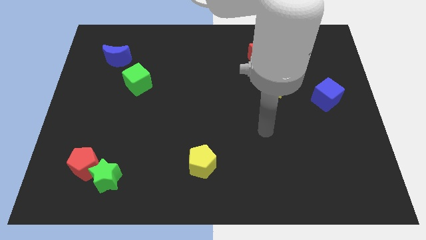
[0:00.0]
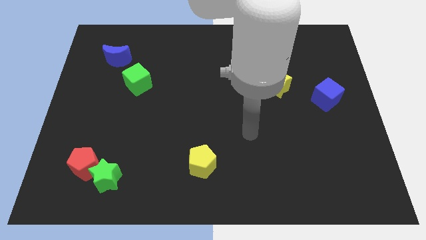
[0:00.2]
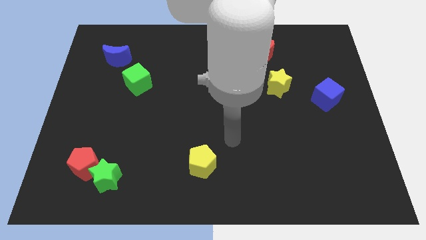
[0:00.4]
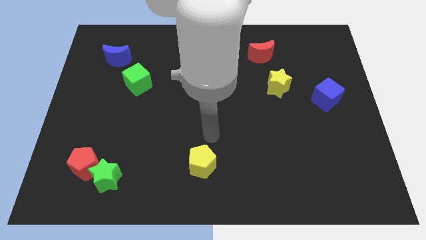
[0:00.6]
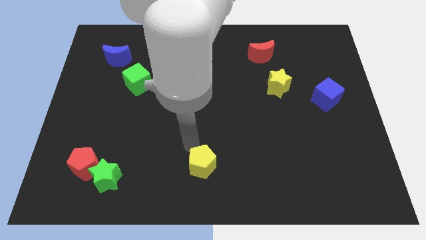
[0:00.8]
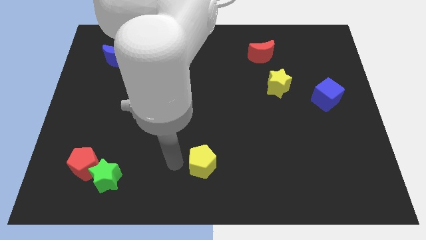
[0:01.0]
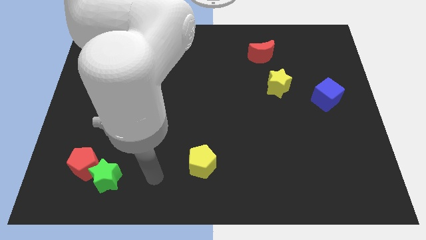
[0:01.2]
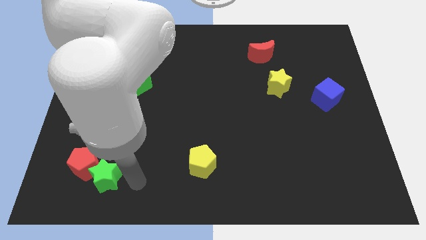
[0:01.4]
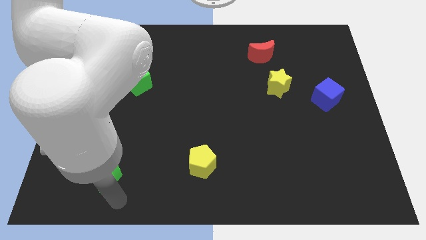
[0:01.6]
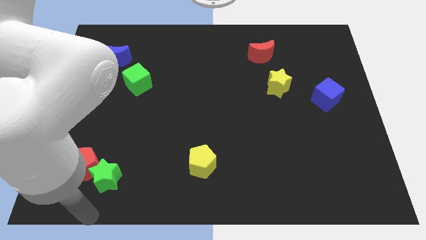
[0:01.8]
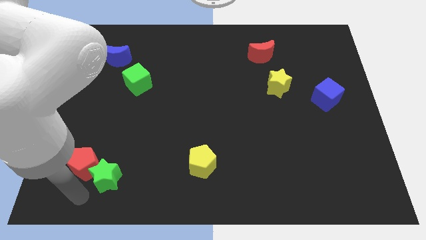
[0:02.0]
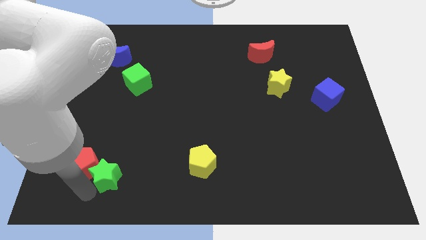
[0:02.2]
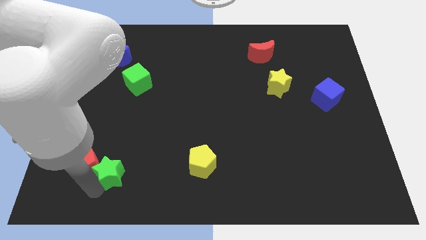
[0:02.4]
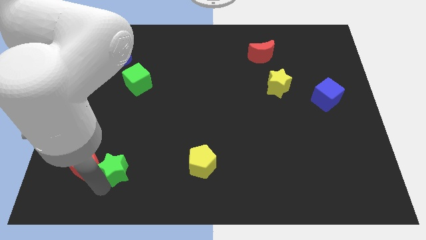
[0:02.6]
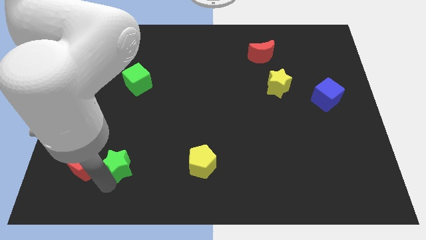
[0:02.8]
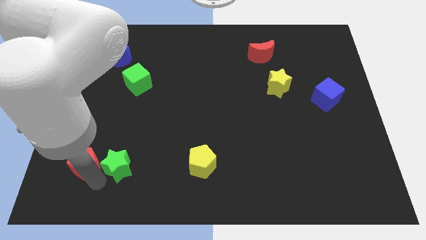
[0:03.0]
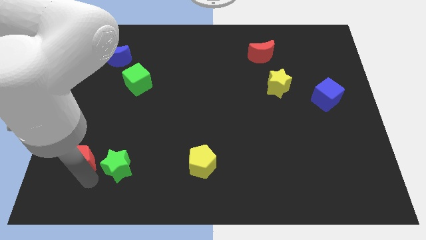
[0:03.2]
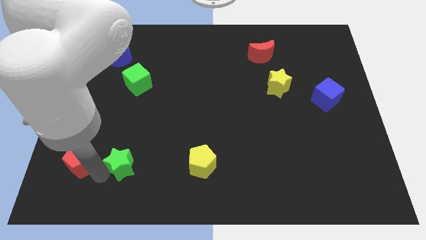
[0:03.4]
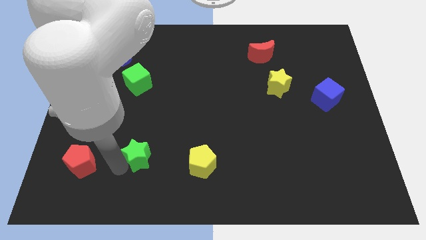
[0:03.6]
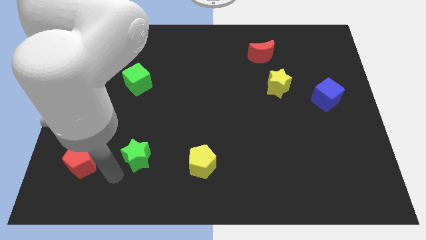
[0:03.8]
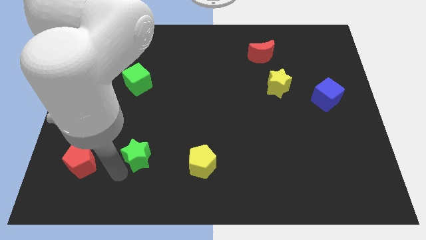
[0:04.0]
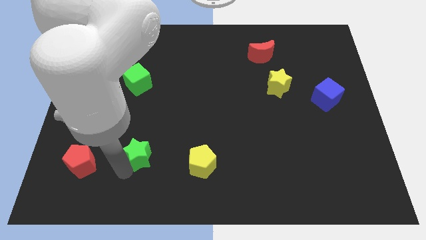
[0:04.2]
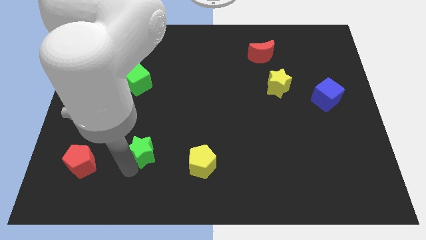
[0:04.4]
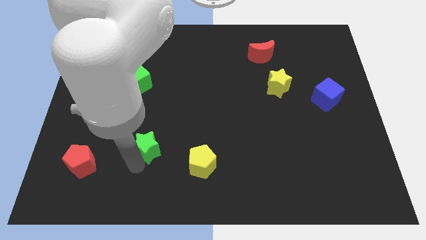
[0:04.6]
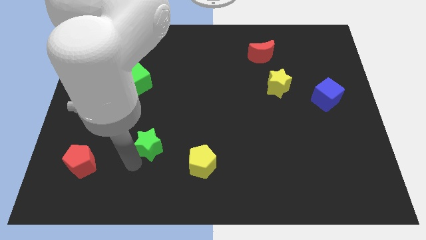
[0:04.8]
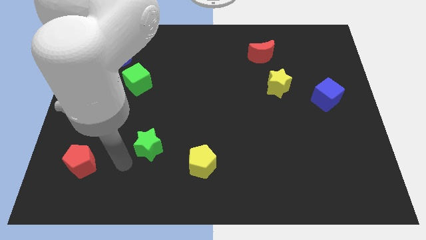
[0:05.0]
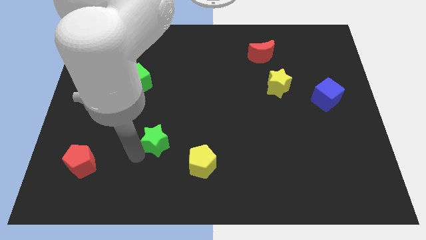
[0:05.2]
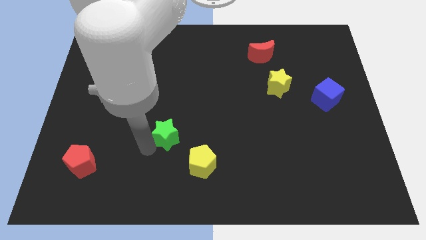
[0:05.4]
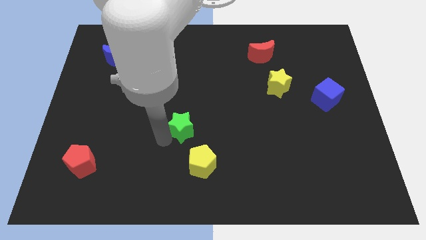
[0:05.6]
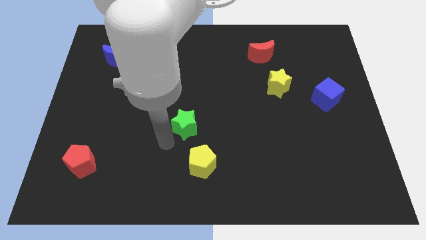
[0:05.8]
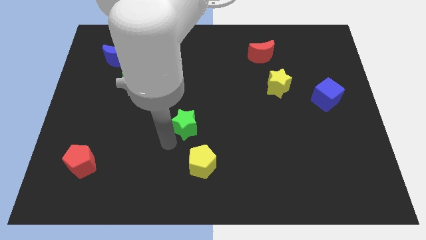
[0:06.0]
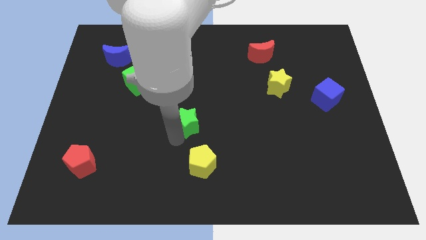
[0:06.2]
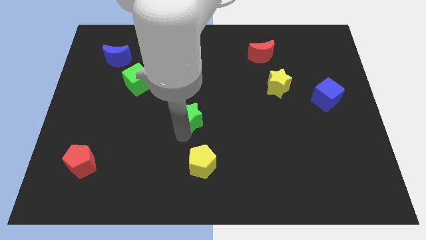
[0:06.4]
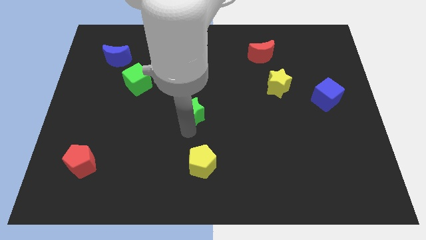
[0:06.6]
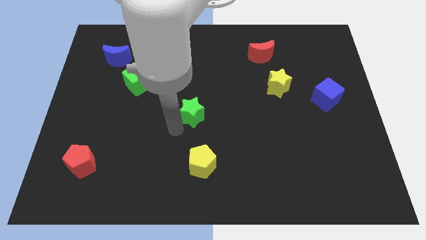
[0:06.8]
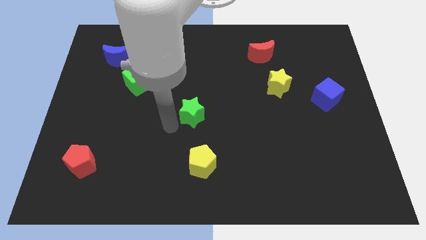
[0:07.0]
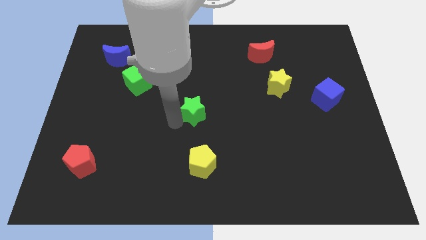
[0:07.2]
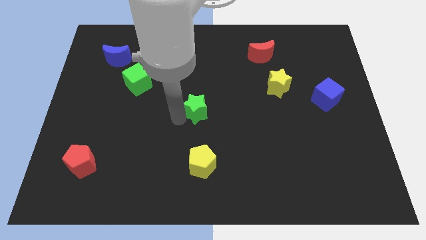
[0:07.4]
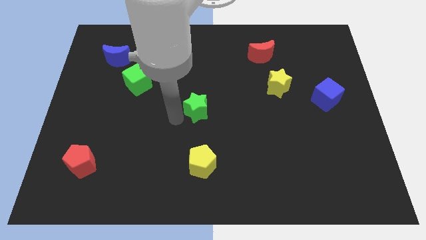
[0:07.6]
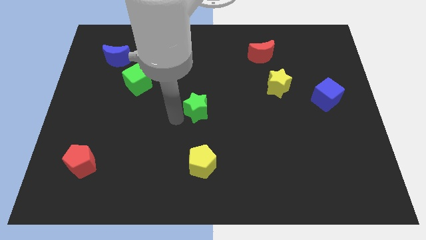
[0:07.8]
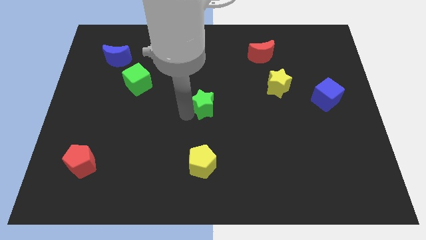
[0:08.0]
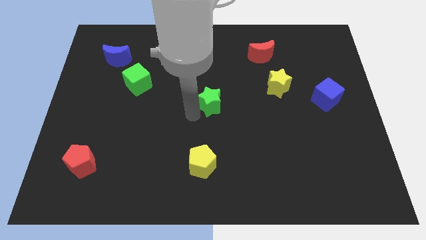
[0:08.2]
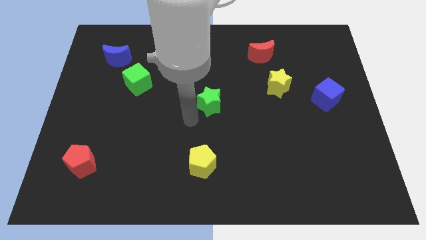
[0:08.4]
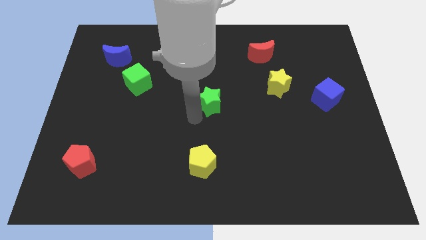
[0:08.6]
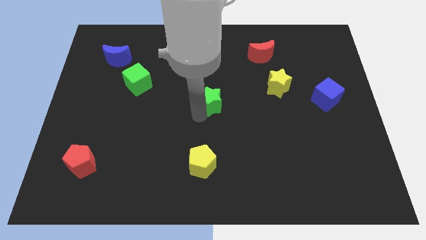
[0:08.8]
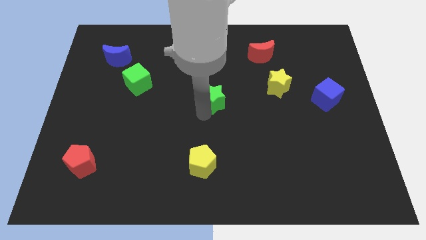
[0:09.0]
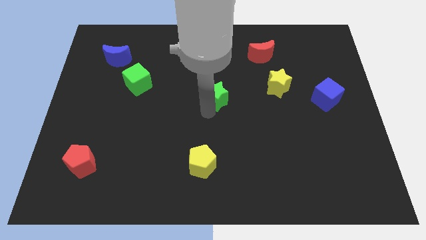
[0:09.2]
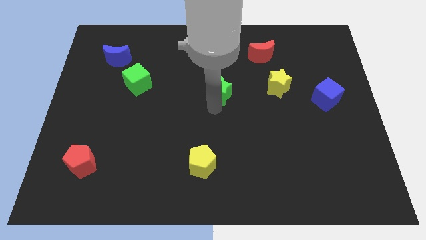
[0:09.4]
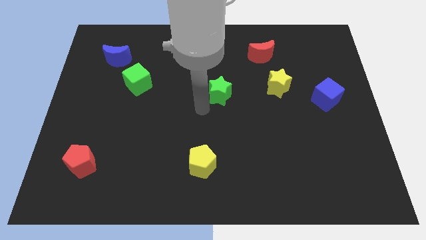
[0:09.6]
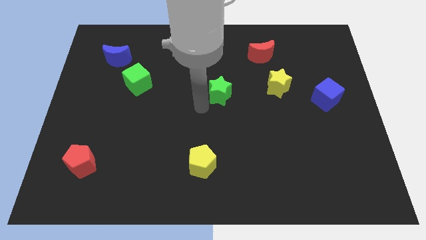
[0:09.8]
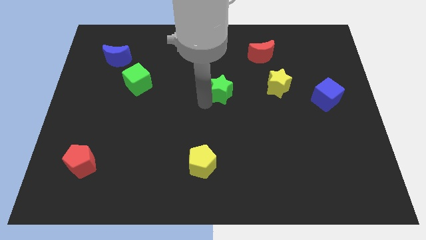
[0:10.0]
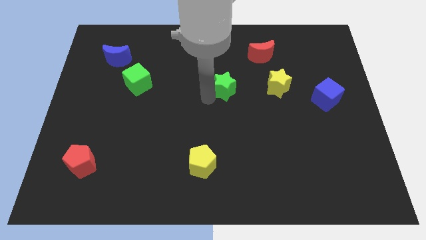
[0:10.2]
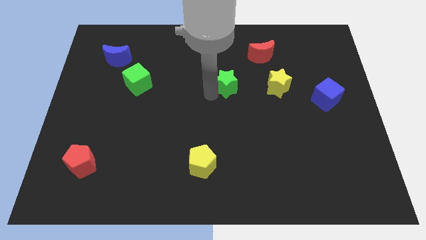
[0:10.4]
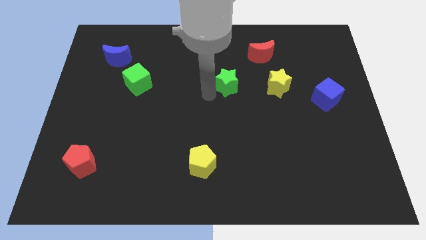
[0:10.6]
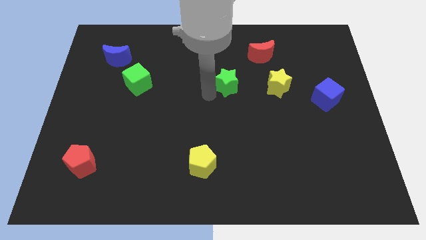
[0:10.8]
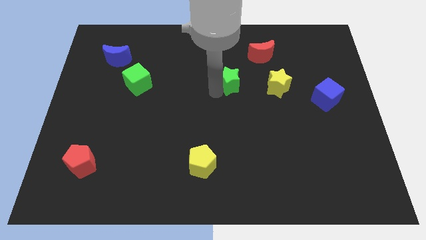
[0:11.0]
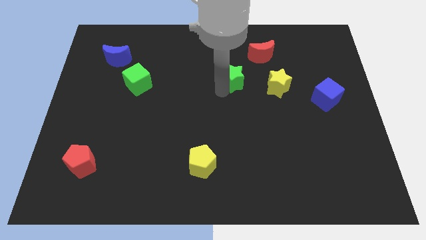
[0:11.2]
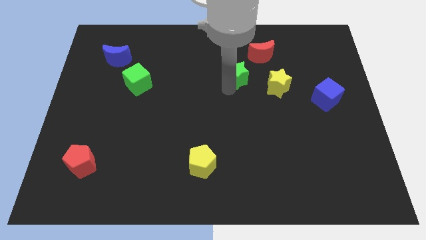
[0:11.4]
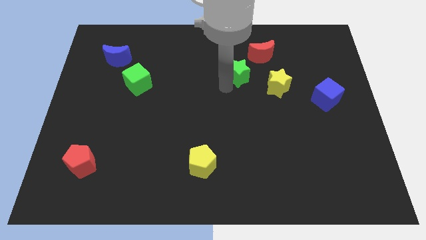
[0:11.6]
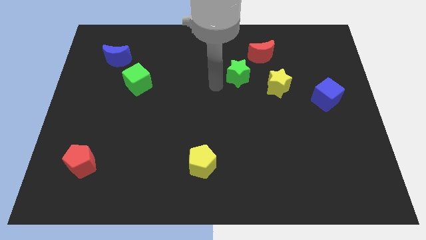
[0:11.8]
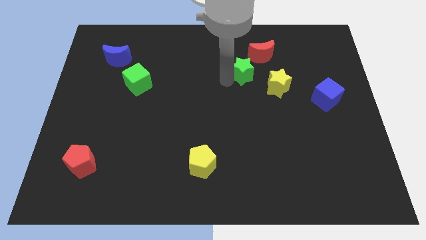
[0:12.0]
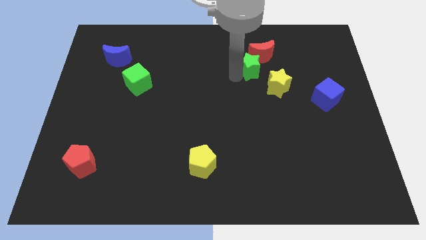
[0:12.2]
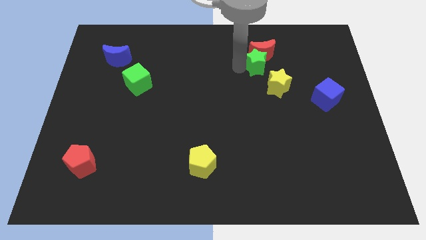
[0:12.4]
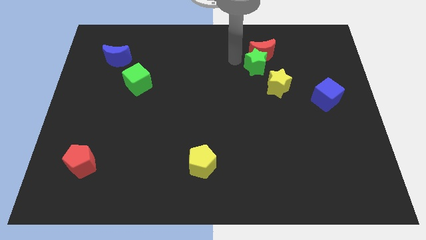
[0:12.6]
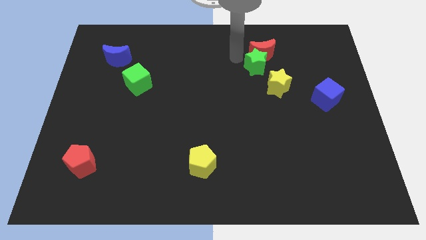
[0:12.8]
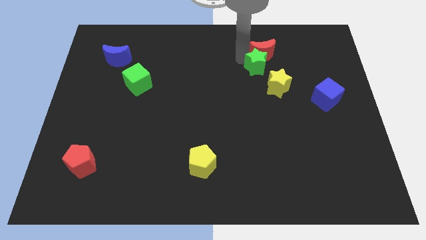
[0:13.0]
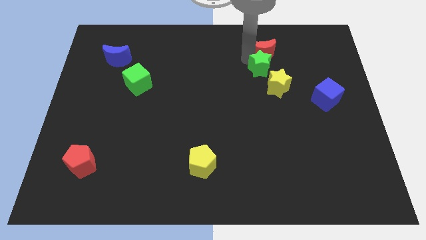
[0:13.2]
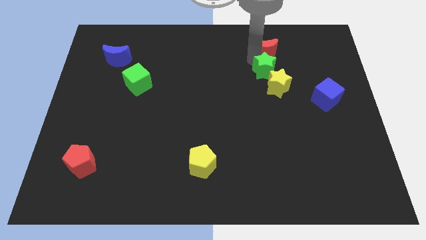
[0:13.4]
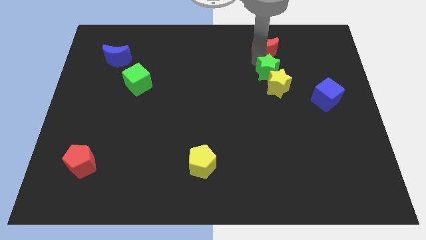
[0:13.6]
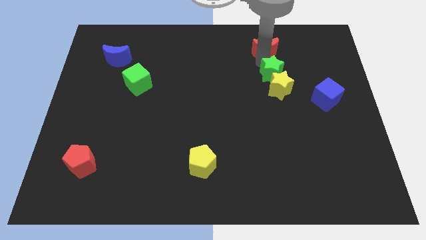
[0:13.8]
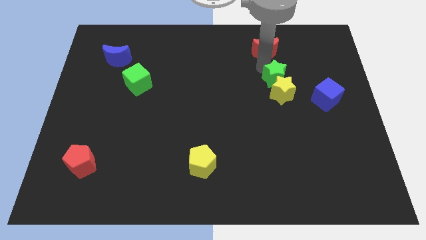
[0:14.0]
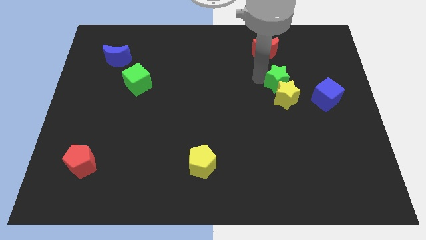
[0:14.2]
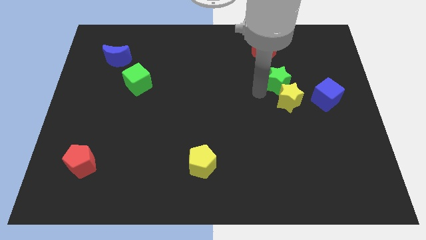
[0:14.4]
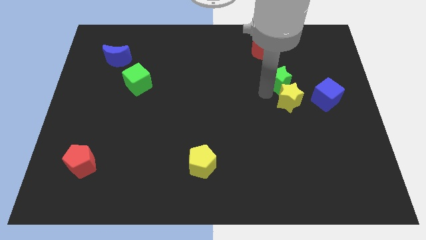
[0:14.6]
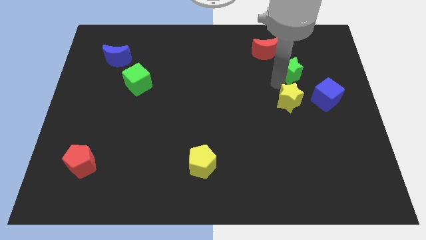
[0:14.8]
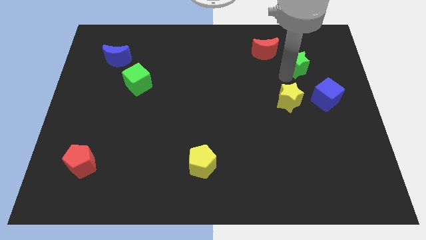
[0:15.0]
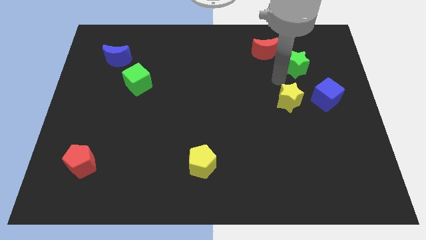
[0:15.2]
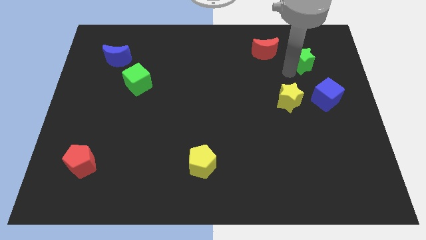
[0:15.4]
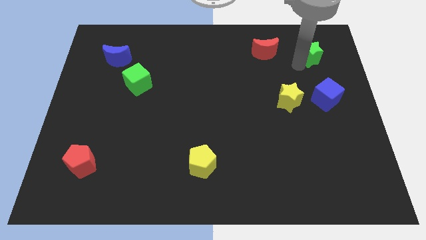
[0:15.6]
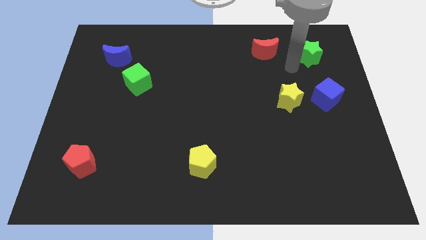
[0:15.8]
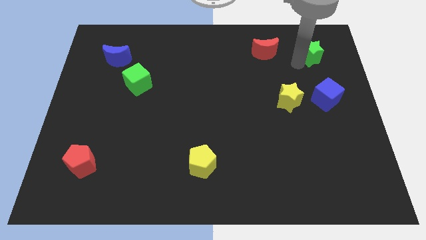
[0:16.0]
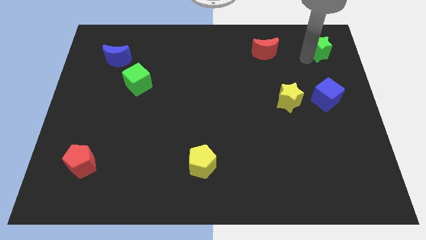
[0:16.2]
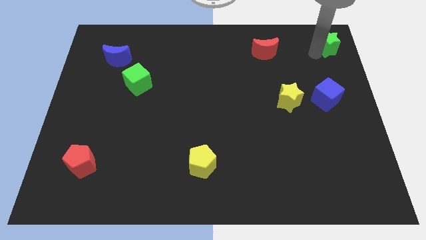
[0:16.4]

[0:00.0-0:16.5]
slide the green star to the top right corner

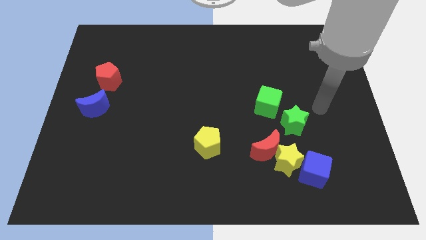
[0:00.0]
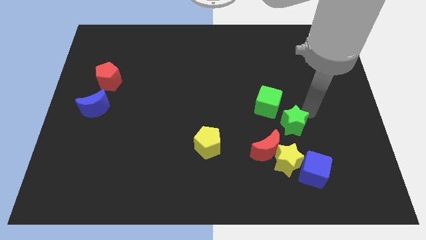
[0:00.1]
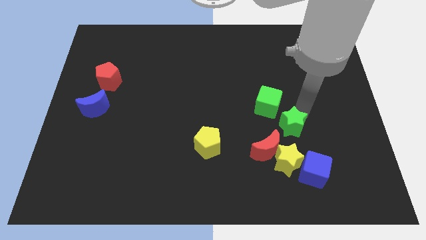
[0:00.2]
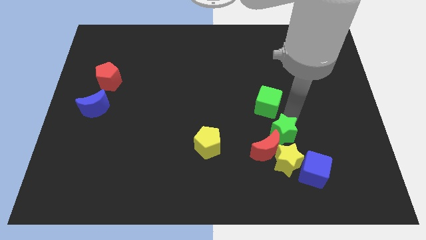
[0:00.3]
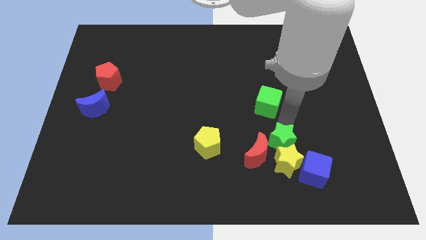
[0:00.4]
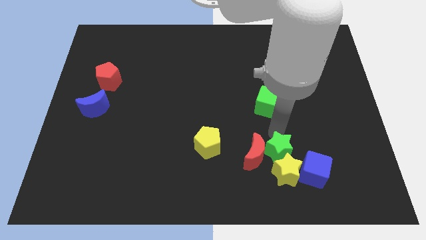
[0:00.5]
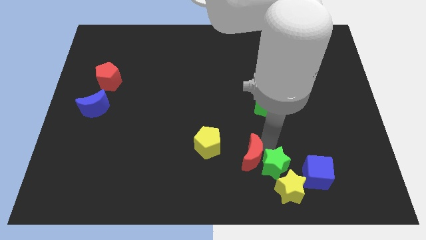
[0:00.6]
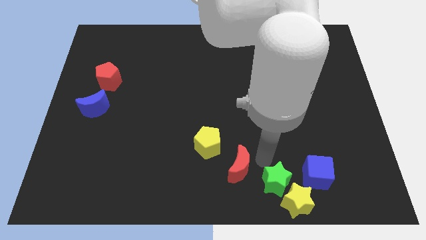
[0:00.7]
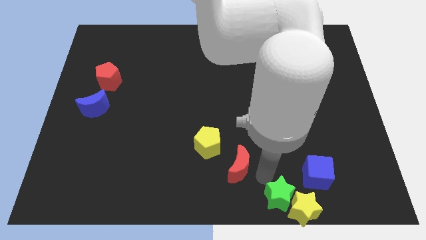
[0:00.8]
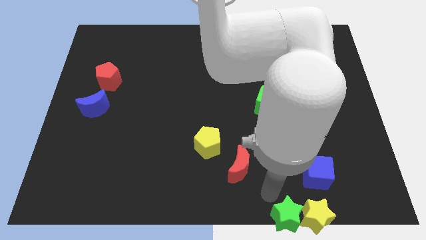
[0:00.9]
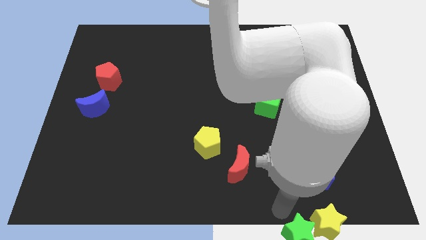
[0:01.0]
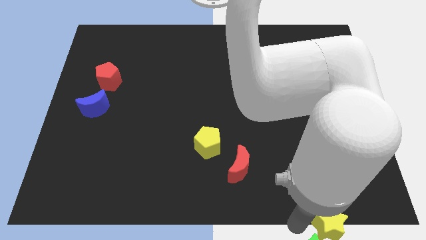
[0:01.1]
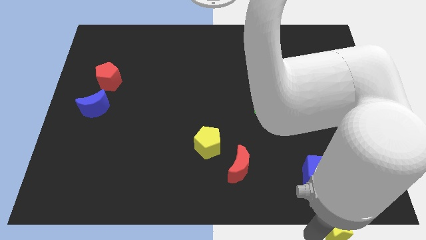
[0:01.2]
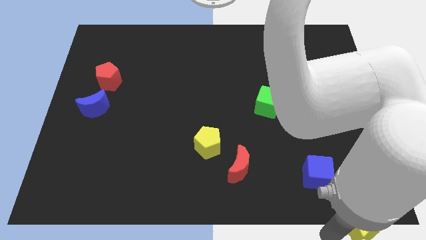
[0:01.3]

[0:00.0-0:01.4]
slide the yellow star to the bottom right corner
